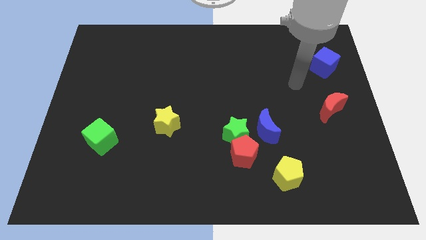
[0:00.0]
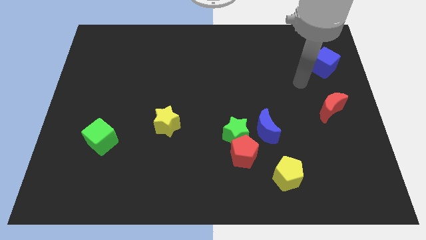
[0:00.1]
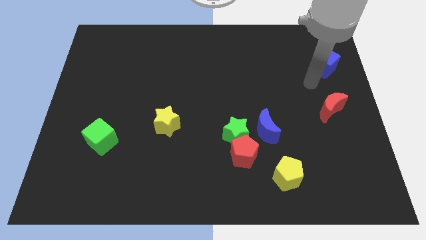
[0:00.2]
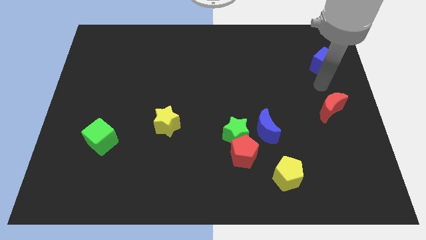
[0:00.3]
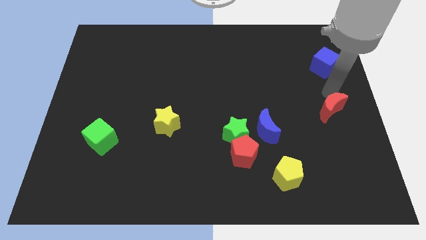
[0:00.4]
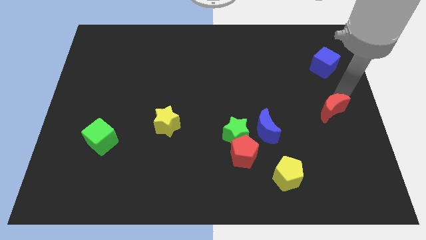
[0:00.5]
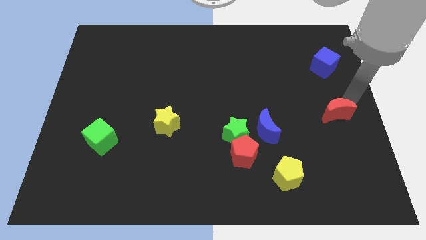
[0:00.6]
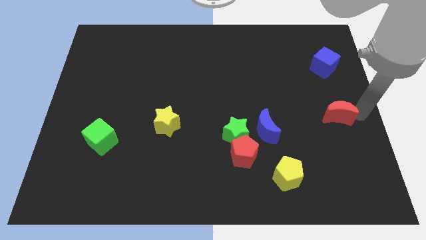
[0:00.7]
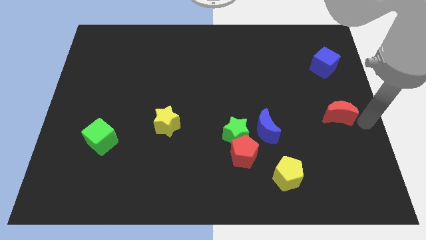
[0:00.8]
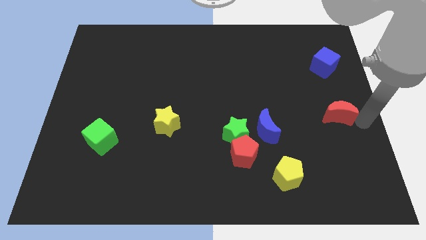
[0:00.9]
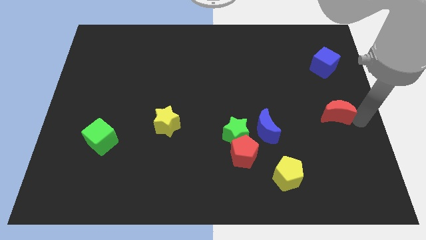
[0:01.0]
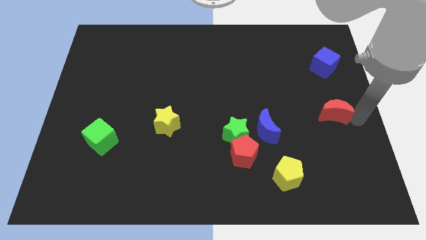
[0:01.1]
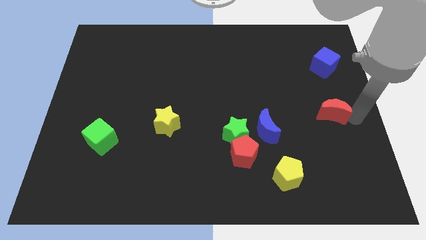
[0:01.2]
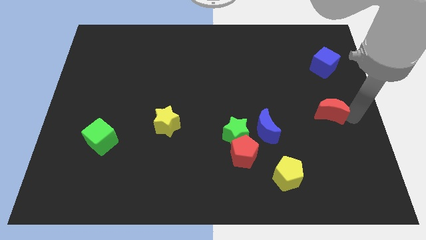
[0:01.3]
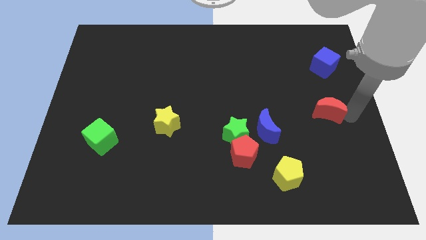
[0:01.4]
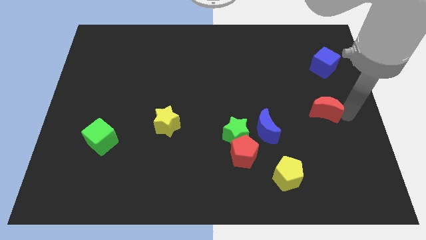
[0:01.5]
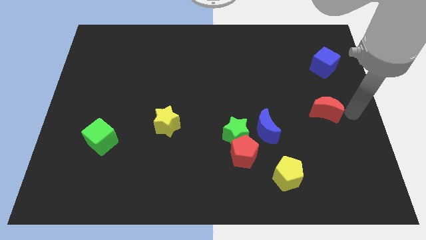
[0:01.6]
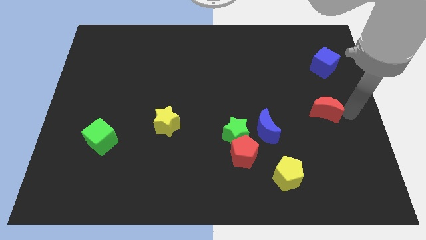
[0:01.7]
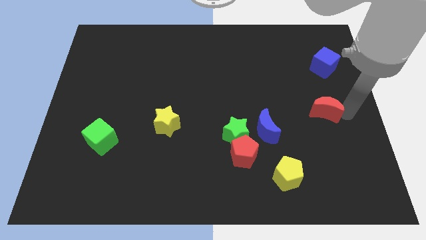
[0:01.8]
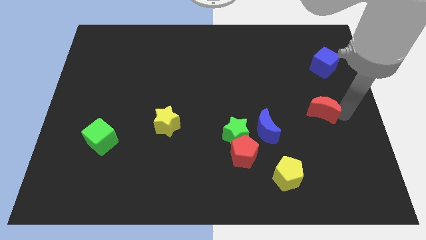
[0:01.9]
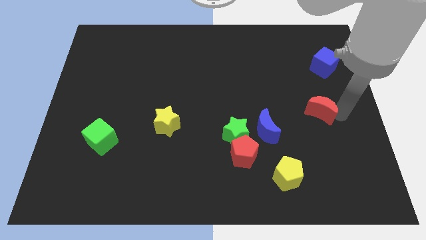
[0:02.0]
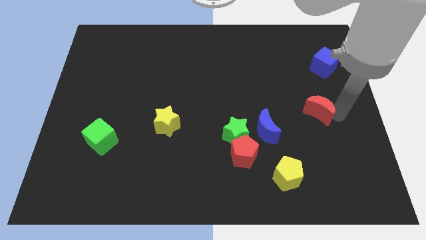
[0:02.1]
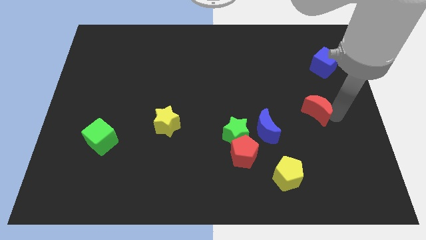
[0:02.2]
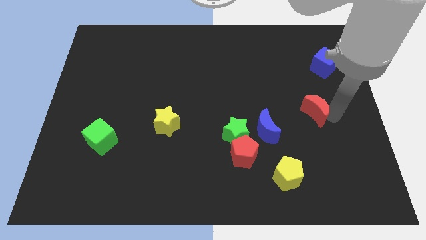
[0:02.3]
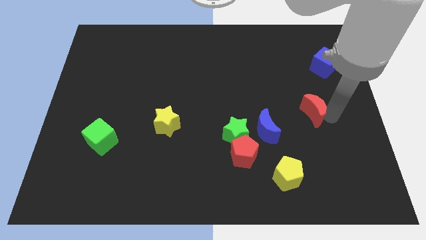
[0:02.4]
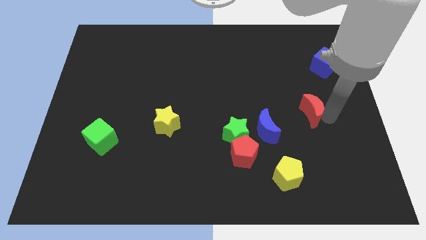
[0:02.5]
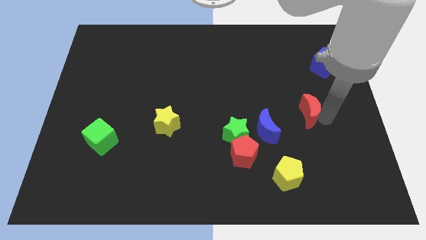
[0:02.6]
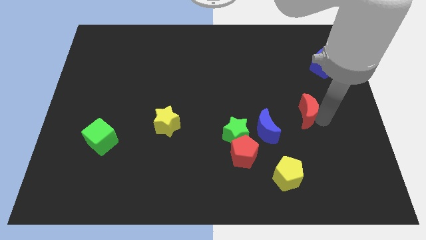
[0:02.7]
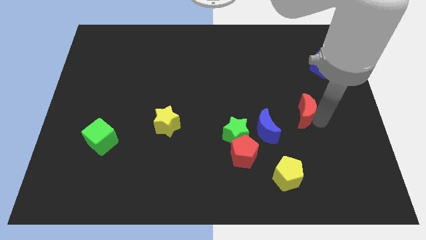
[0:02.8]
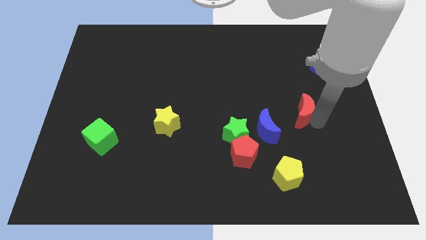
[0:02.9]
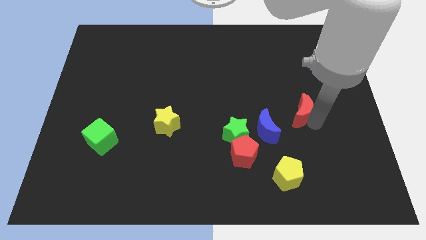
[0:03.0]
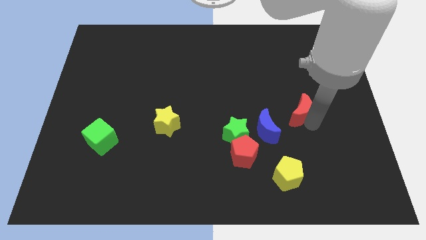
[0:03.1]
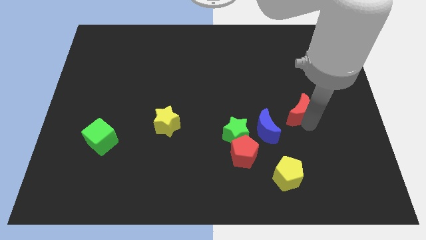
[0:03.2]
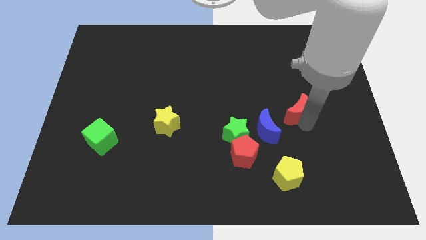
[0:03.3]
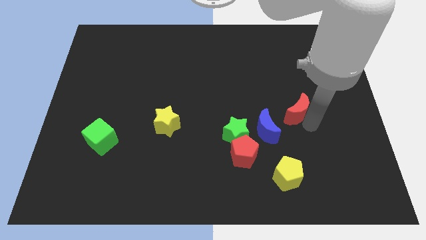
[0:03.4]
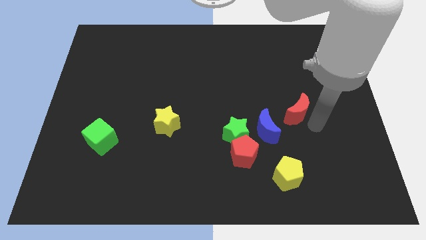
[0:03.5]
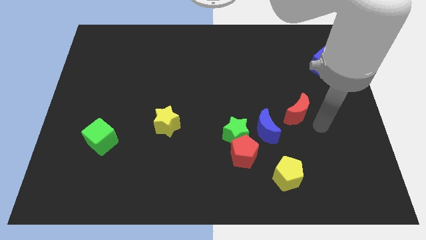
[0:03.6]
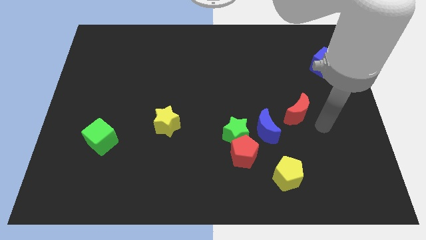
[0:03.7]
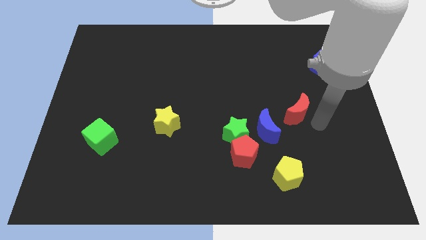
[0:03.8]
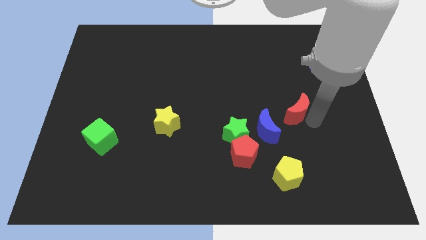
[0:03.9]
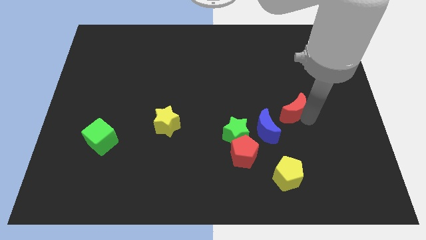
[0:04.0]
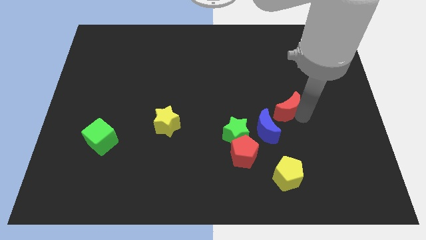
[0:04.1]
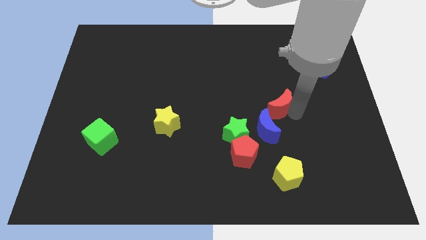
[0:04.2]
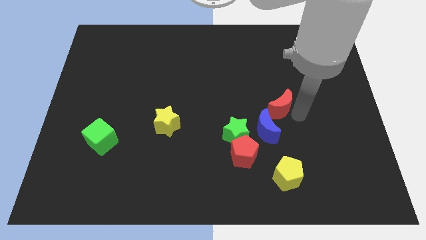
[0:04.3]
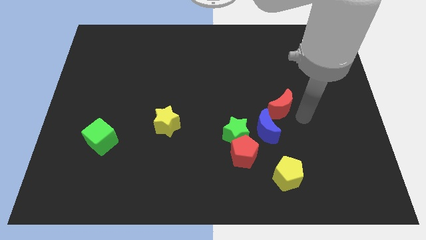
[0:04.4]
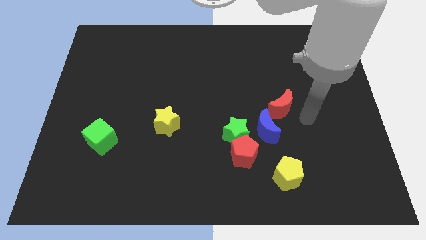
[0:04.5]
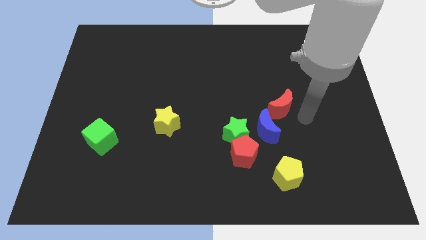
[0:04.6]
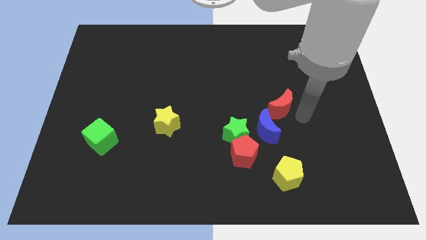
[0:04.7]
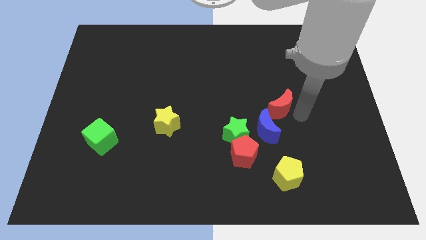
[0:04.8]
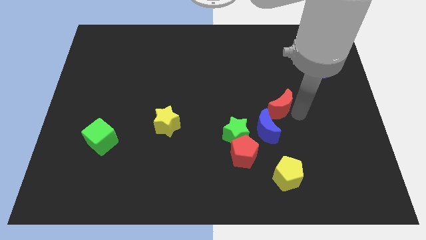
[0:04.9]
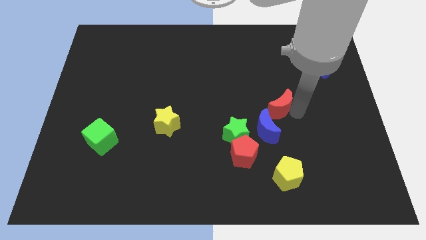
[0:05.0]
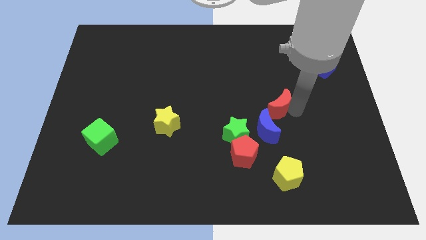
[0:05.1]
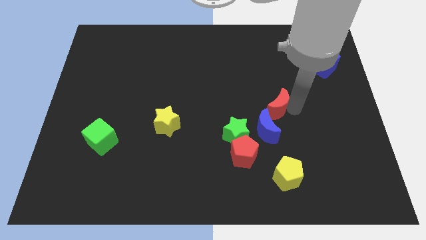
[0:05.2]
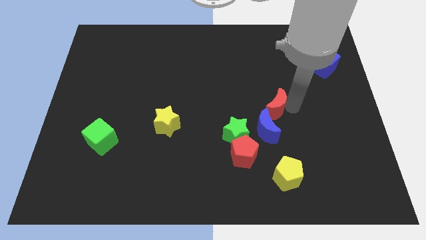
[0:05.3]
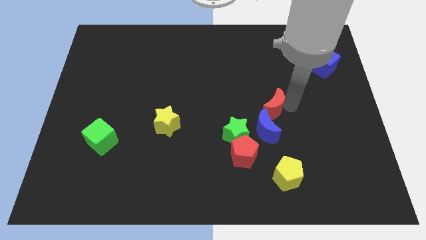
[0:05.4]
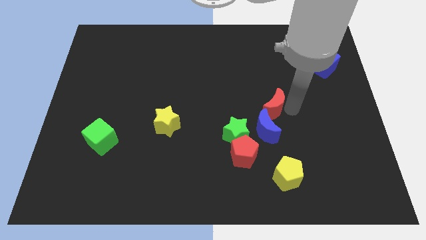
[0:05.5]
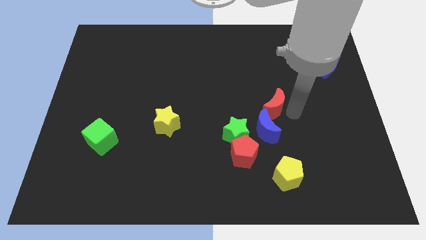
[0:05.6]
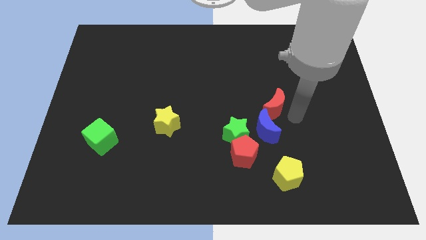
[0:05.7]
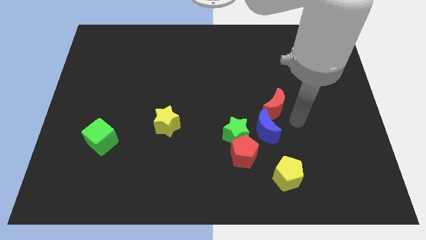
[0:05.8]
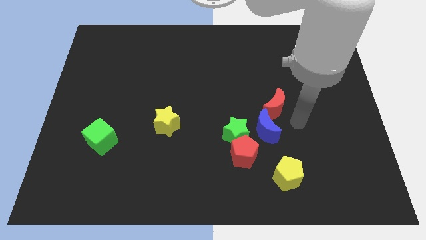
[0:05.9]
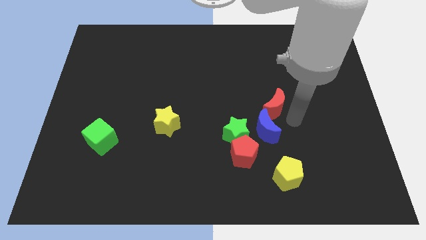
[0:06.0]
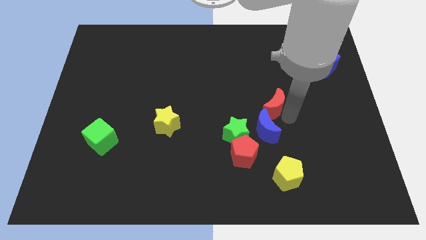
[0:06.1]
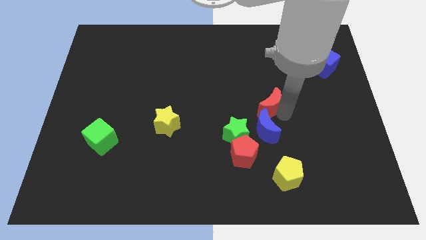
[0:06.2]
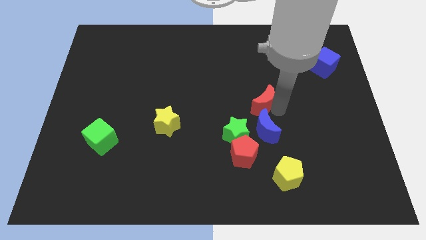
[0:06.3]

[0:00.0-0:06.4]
slide the red moon to the center of the board
